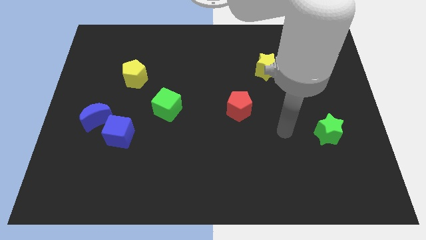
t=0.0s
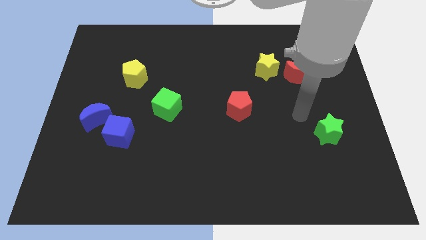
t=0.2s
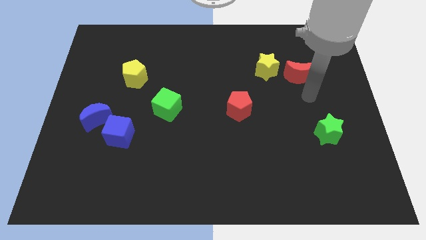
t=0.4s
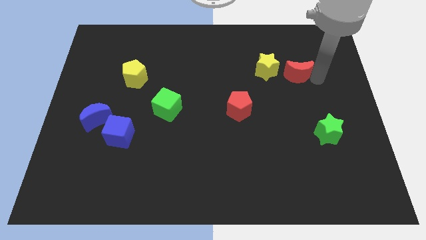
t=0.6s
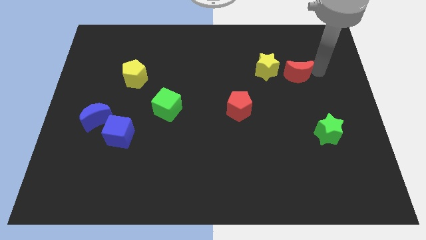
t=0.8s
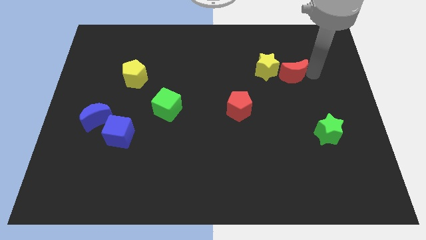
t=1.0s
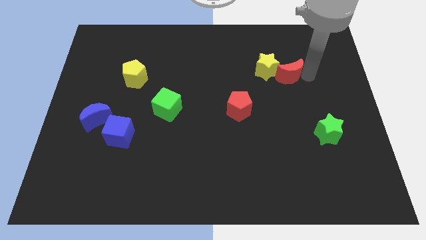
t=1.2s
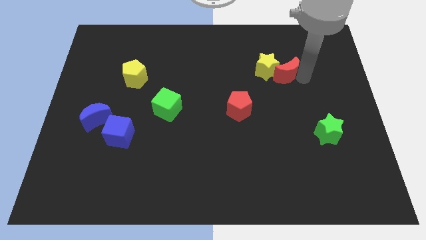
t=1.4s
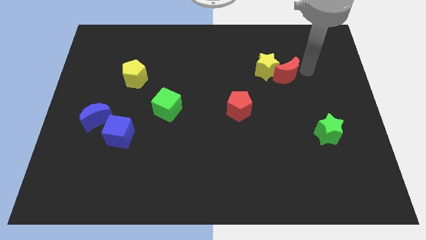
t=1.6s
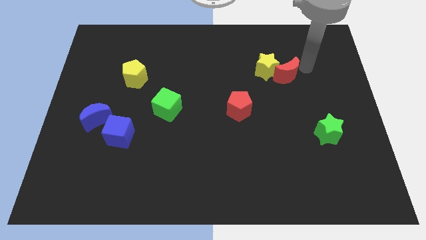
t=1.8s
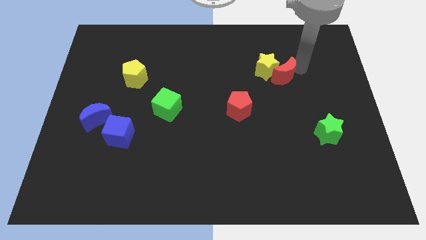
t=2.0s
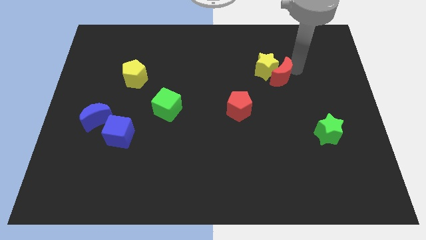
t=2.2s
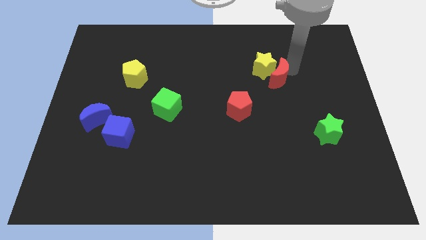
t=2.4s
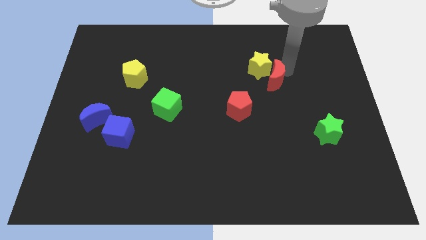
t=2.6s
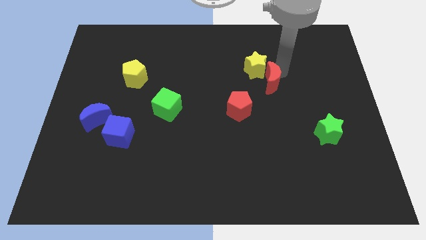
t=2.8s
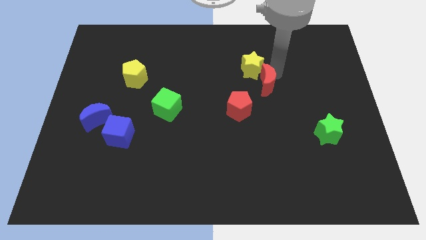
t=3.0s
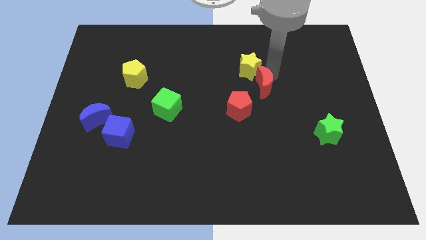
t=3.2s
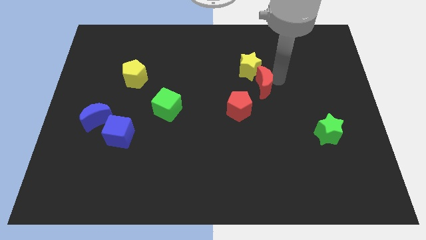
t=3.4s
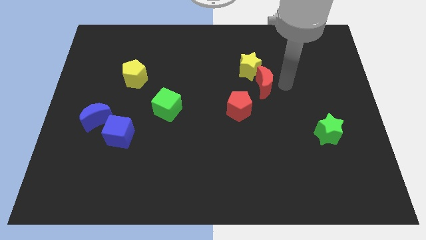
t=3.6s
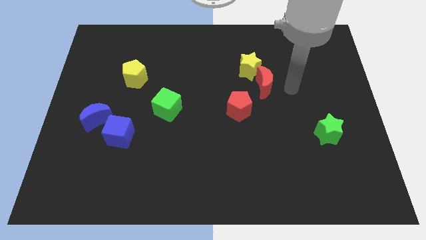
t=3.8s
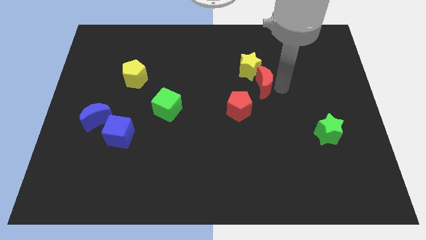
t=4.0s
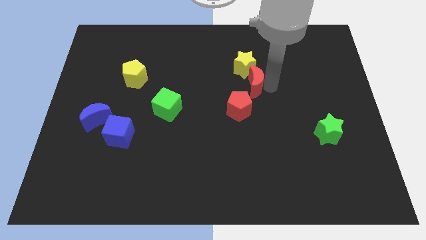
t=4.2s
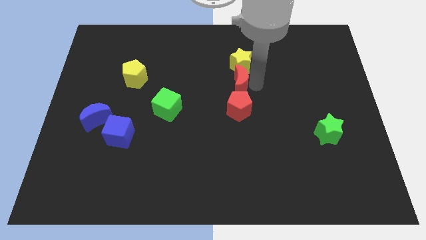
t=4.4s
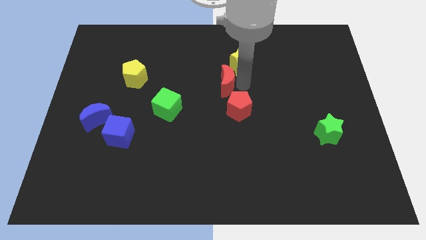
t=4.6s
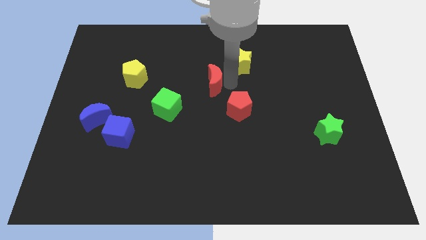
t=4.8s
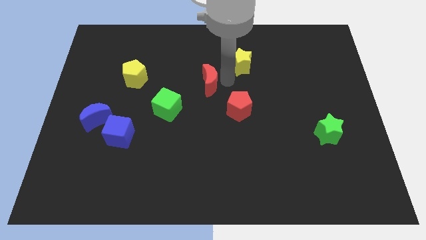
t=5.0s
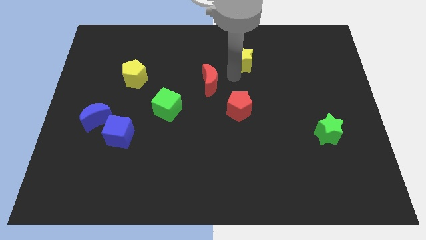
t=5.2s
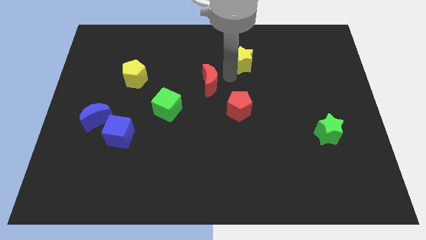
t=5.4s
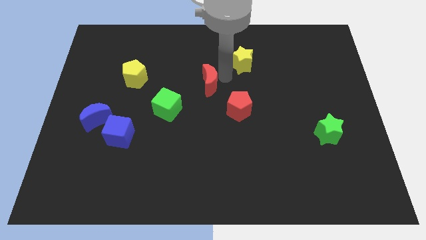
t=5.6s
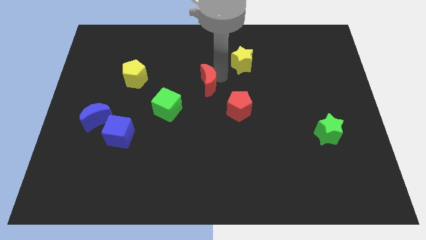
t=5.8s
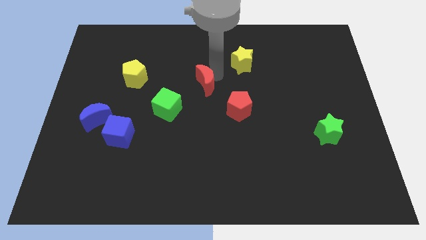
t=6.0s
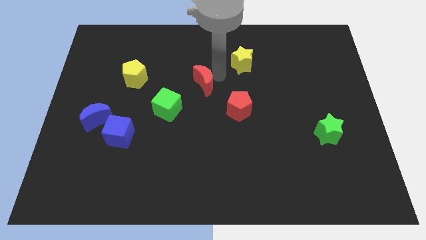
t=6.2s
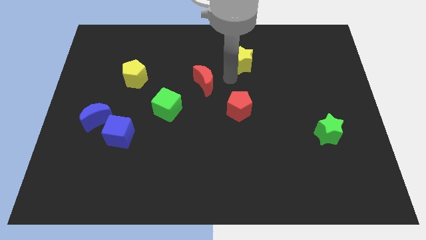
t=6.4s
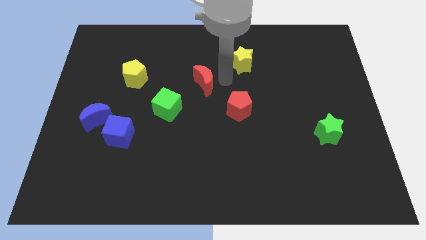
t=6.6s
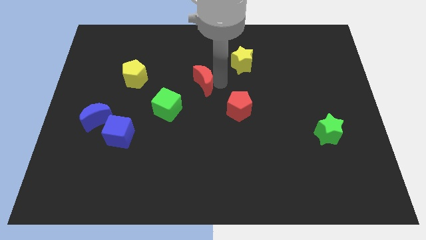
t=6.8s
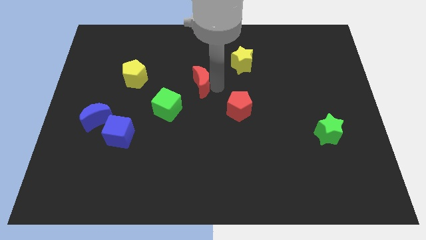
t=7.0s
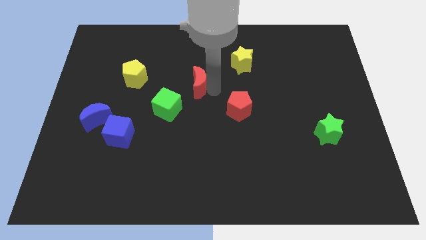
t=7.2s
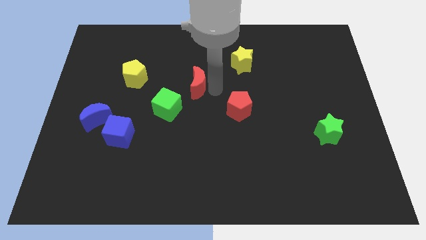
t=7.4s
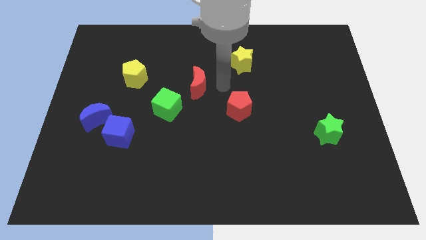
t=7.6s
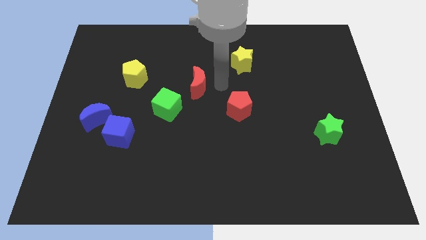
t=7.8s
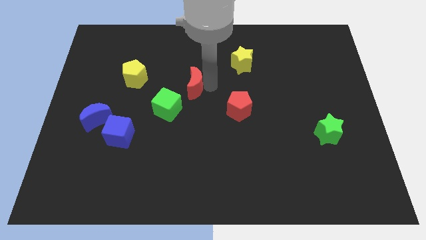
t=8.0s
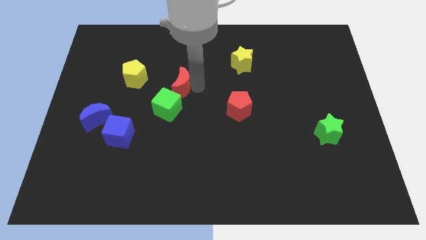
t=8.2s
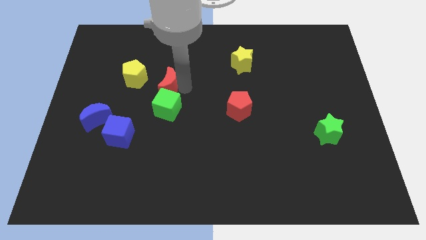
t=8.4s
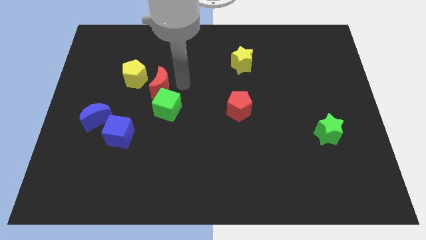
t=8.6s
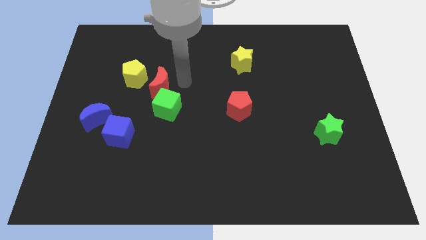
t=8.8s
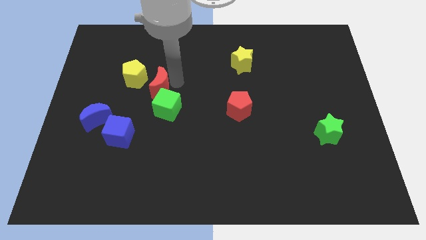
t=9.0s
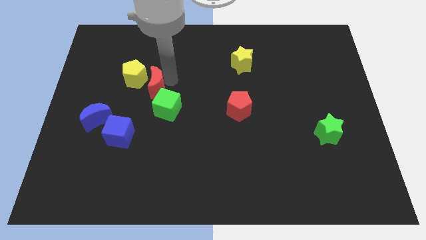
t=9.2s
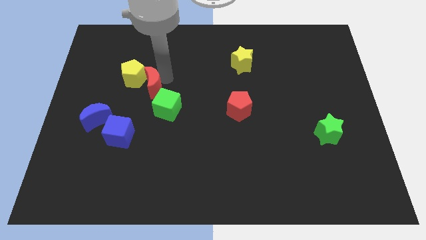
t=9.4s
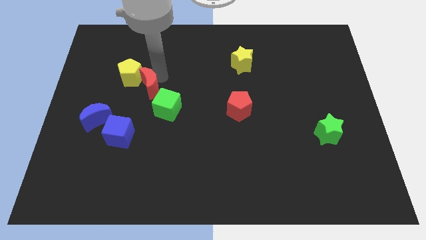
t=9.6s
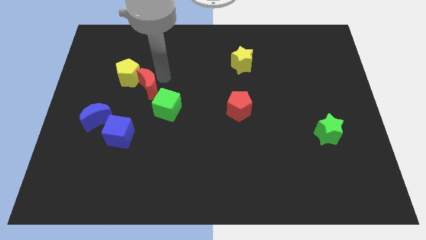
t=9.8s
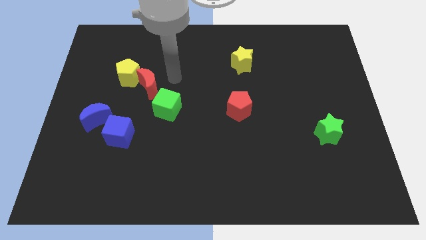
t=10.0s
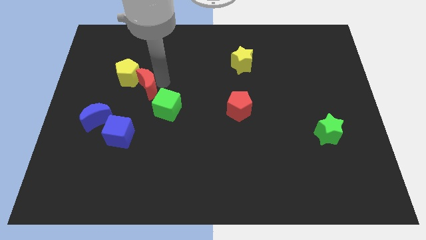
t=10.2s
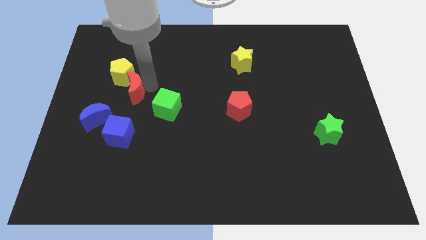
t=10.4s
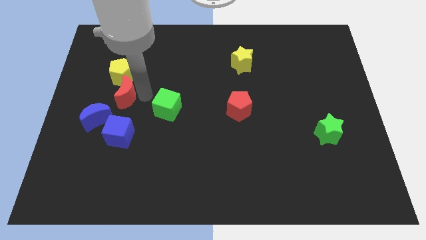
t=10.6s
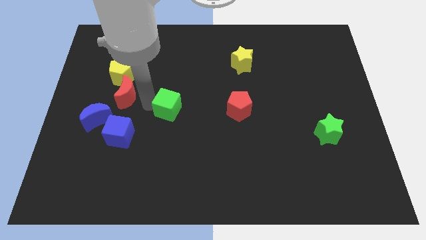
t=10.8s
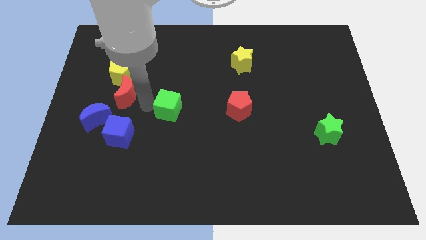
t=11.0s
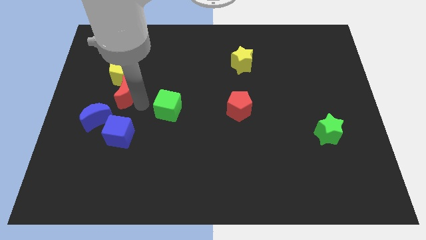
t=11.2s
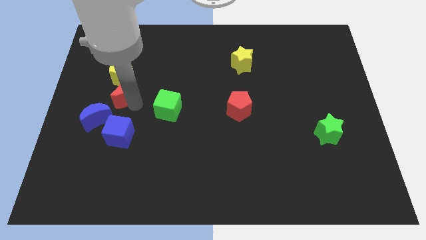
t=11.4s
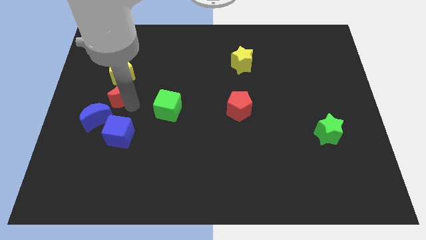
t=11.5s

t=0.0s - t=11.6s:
move the red moon above the blue moon

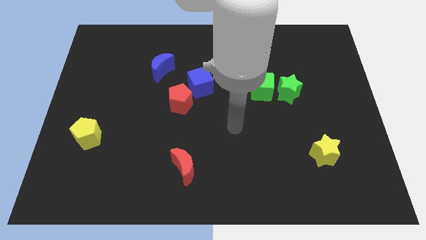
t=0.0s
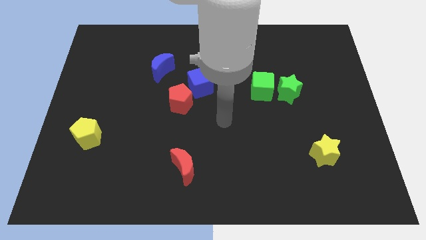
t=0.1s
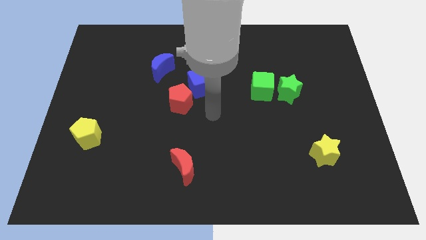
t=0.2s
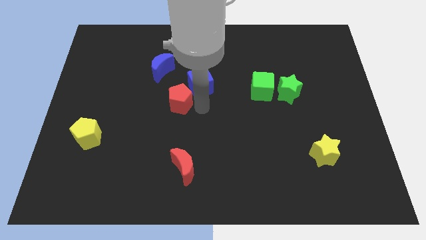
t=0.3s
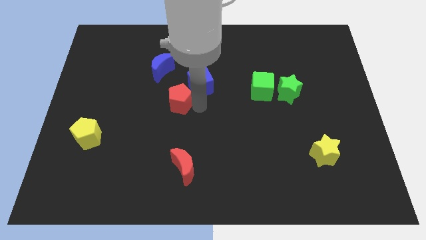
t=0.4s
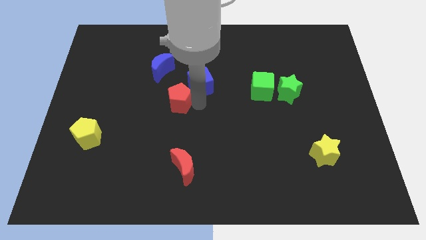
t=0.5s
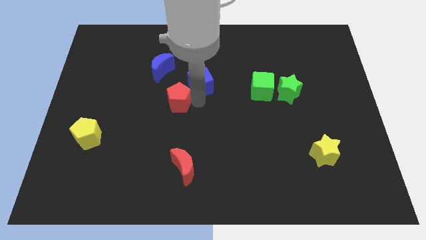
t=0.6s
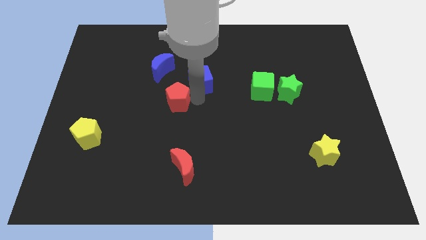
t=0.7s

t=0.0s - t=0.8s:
push the blue cube just right of the blue moon

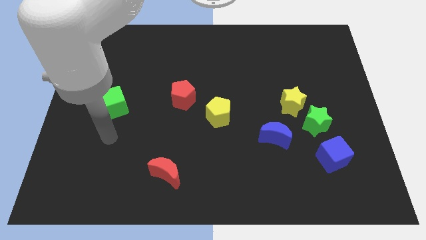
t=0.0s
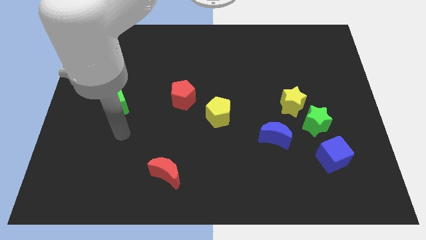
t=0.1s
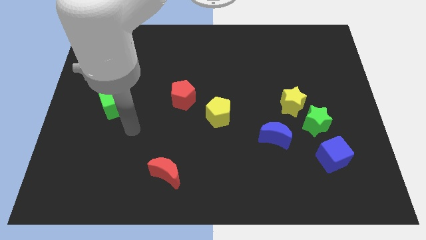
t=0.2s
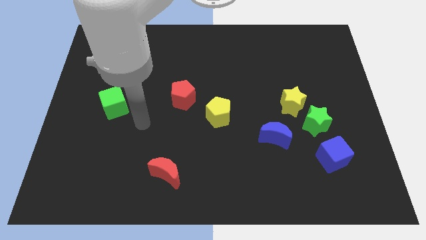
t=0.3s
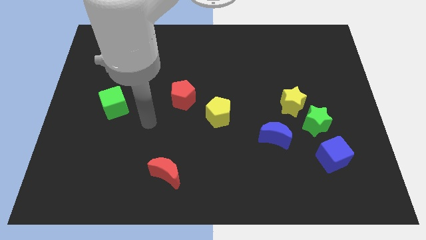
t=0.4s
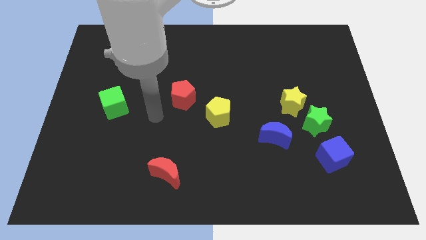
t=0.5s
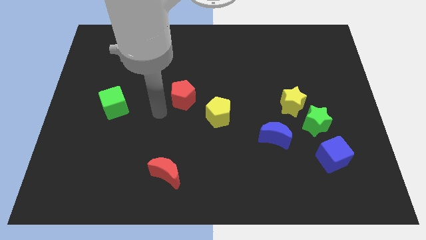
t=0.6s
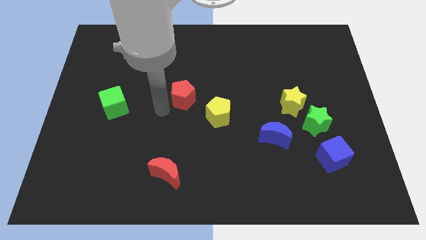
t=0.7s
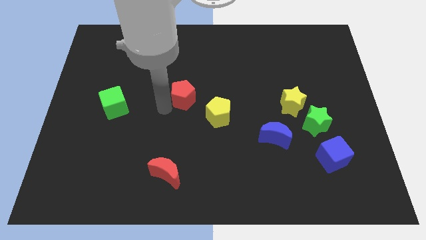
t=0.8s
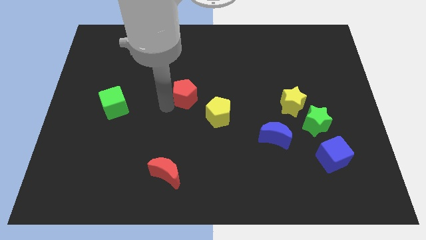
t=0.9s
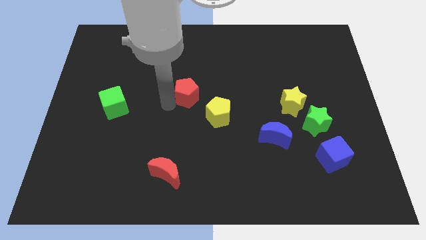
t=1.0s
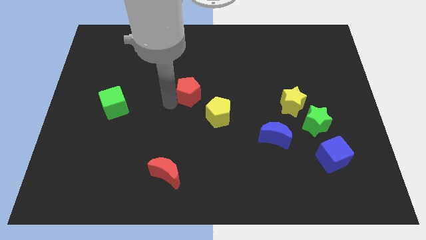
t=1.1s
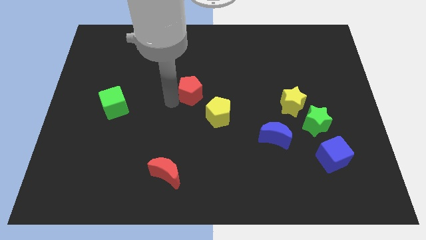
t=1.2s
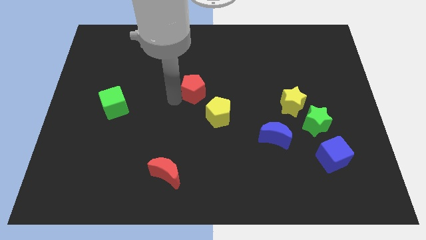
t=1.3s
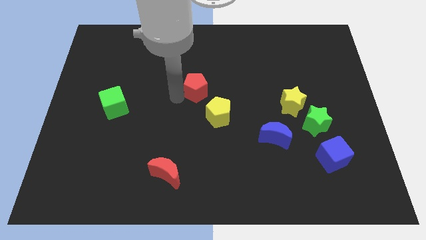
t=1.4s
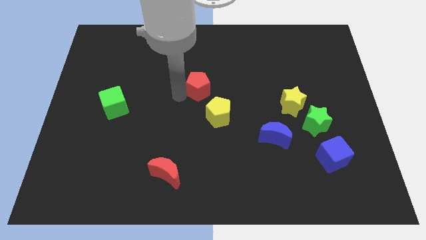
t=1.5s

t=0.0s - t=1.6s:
move the red pentagon to the top of the yellow pentagon
